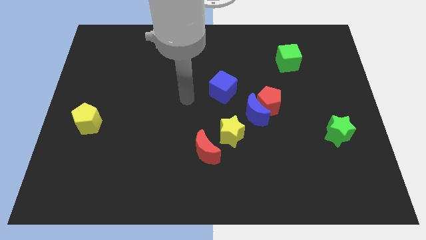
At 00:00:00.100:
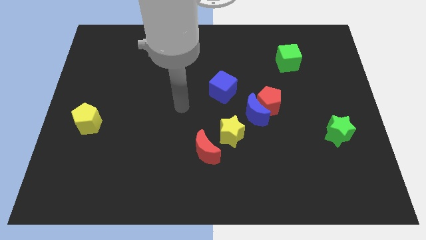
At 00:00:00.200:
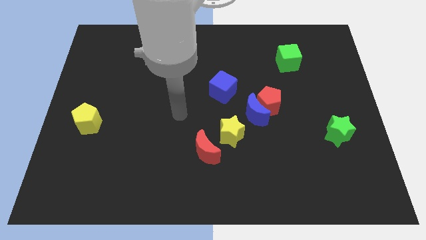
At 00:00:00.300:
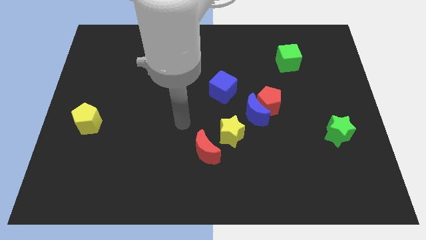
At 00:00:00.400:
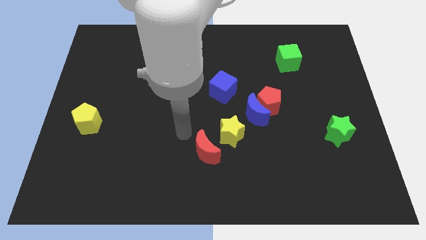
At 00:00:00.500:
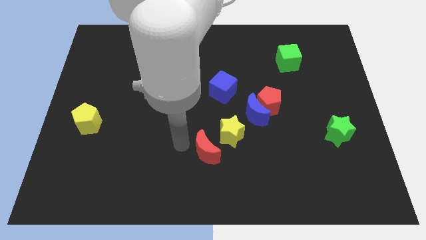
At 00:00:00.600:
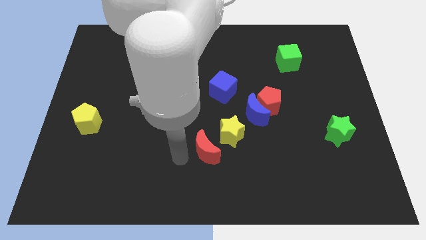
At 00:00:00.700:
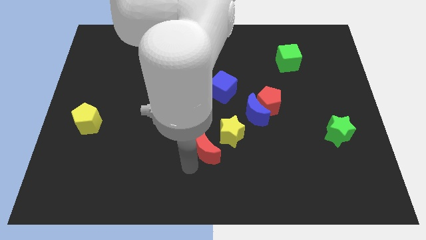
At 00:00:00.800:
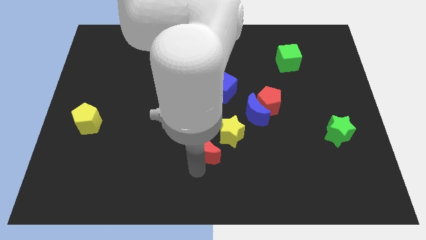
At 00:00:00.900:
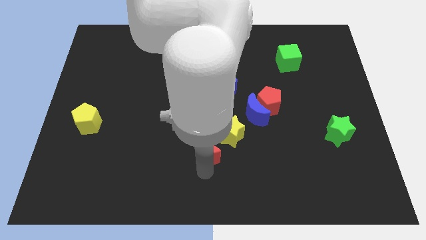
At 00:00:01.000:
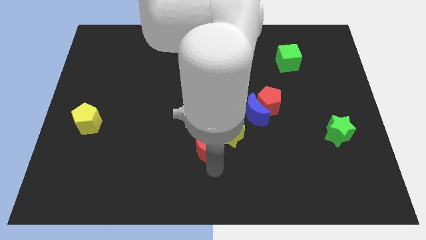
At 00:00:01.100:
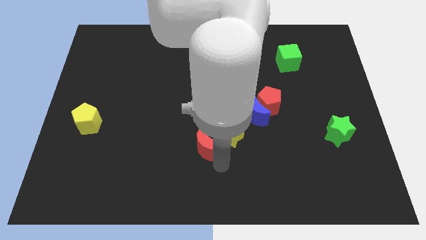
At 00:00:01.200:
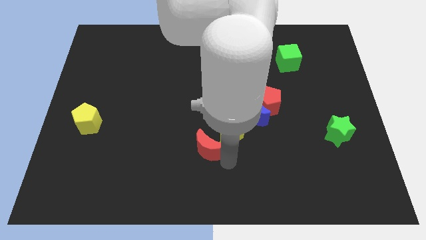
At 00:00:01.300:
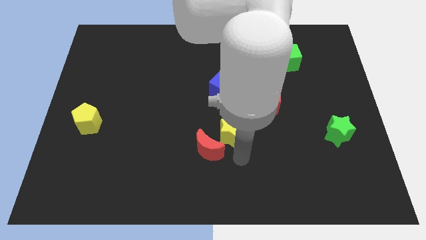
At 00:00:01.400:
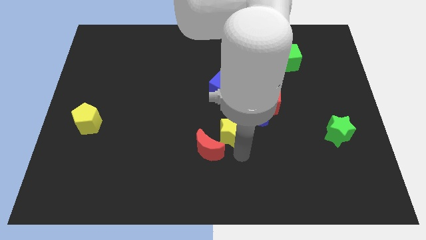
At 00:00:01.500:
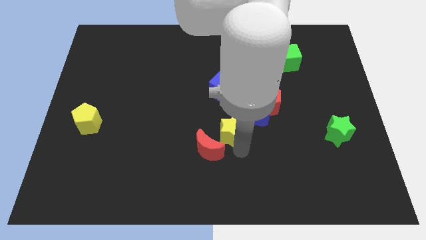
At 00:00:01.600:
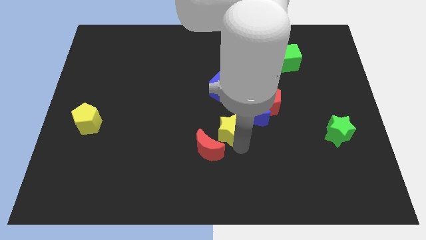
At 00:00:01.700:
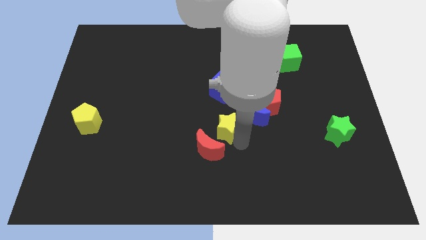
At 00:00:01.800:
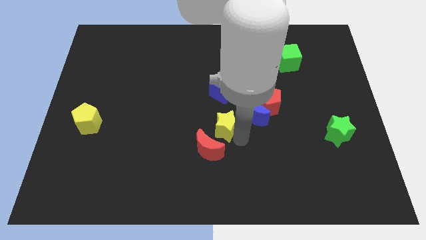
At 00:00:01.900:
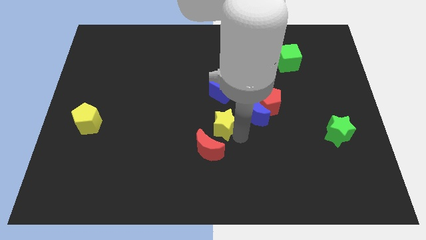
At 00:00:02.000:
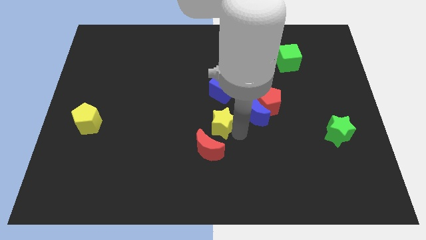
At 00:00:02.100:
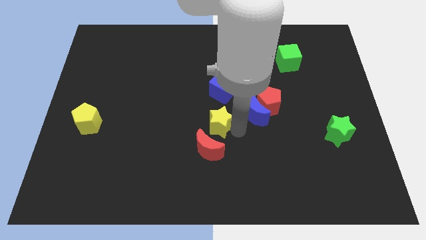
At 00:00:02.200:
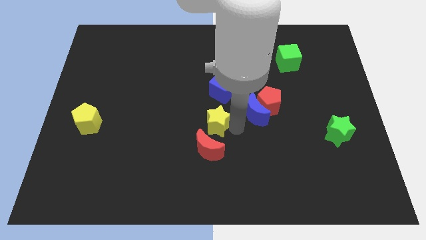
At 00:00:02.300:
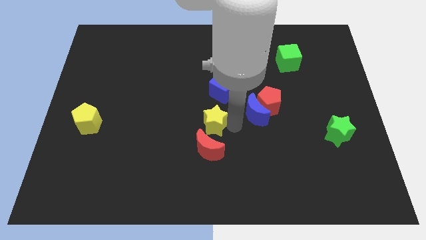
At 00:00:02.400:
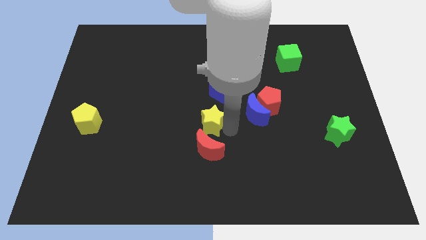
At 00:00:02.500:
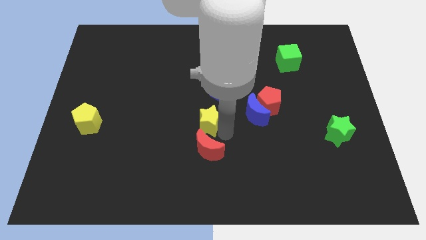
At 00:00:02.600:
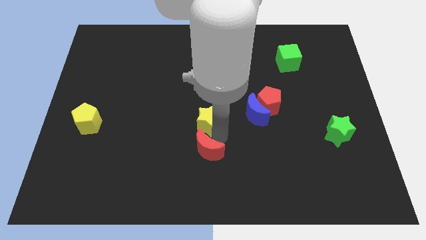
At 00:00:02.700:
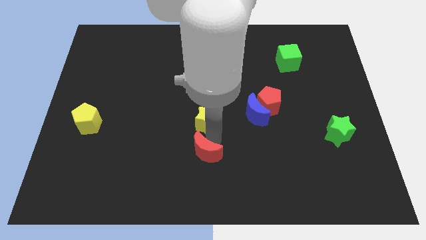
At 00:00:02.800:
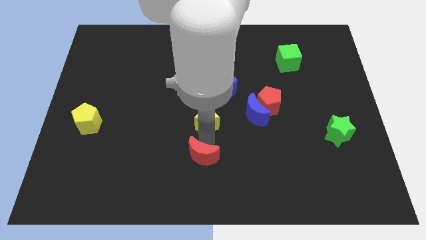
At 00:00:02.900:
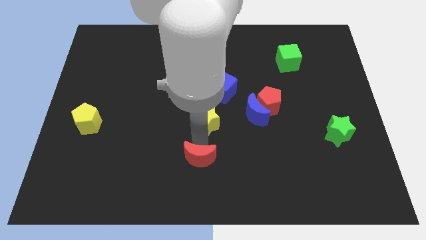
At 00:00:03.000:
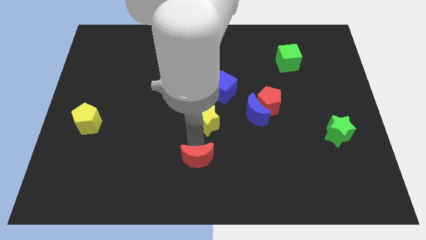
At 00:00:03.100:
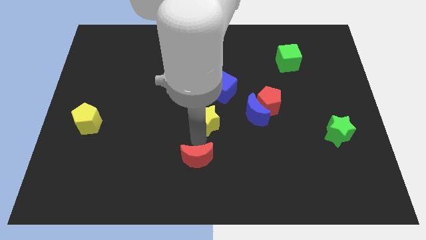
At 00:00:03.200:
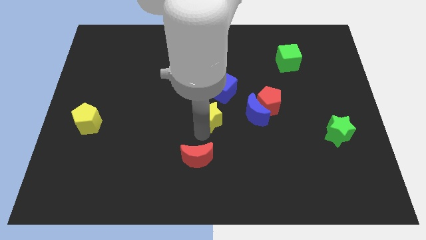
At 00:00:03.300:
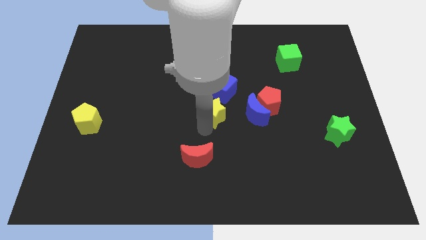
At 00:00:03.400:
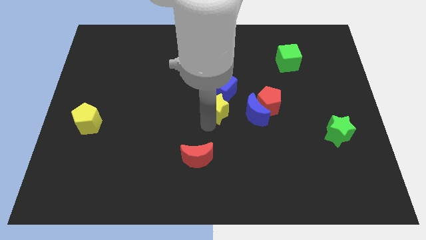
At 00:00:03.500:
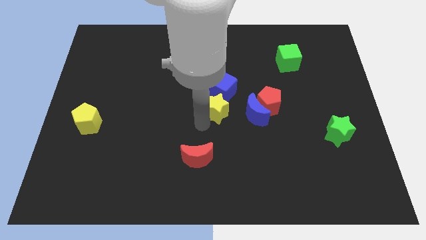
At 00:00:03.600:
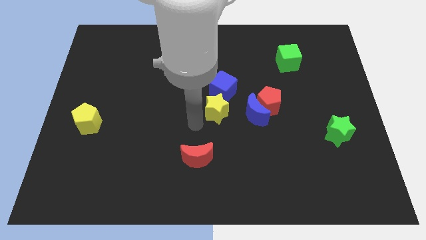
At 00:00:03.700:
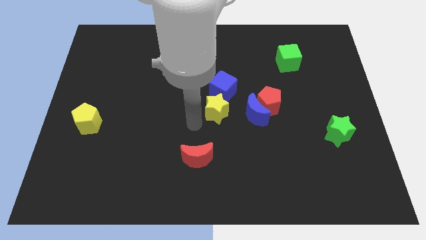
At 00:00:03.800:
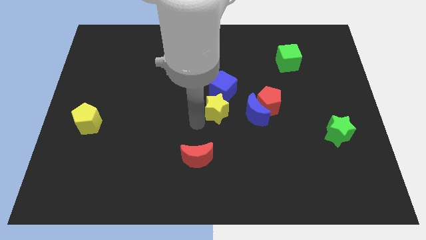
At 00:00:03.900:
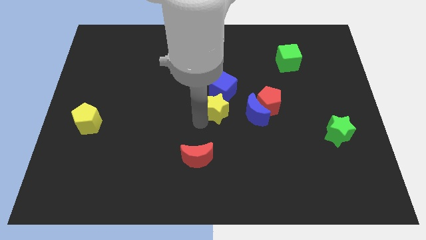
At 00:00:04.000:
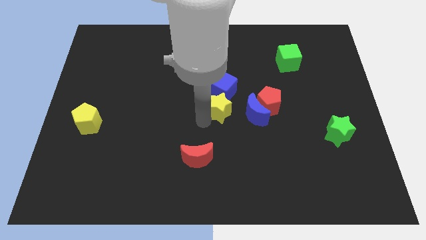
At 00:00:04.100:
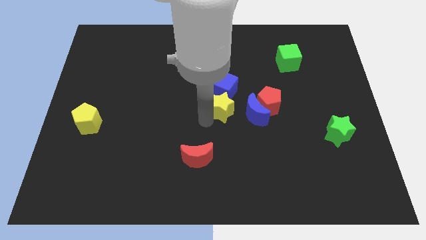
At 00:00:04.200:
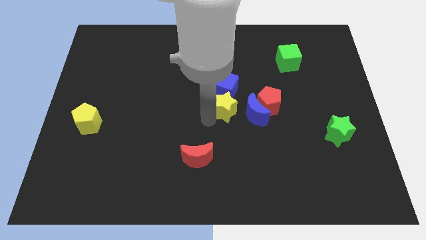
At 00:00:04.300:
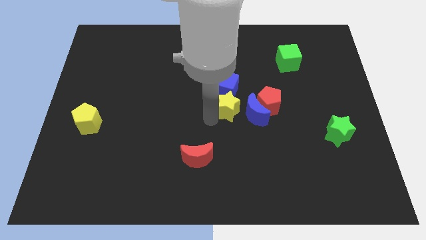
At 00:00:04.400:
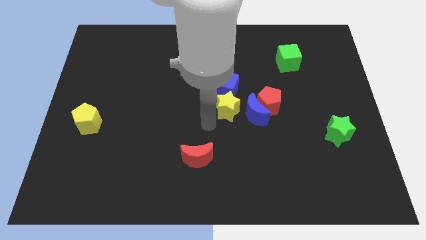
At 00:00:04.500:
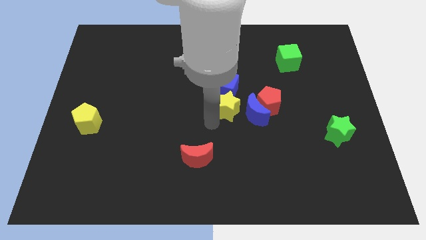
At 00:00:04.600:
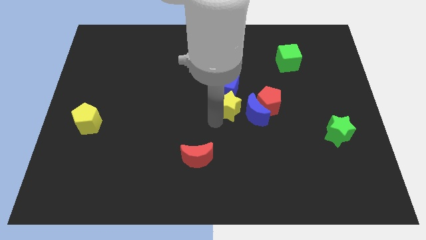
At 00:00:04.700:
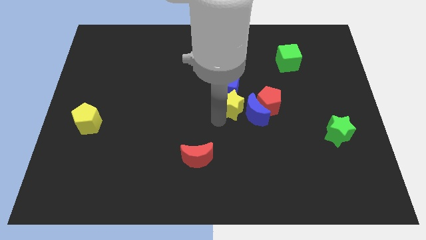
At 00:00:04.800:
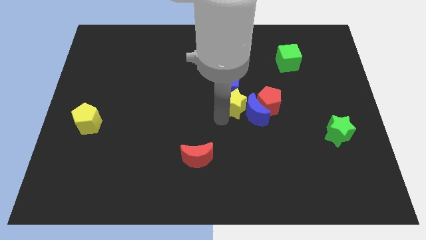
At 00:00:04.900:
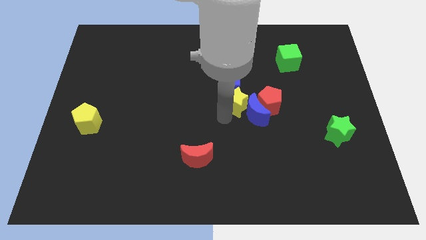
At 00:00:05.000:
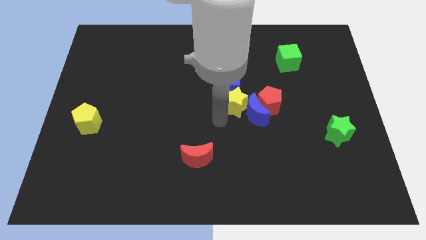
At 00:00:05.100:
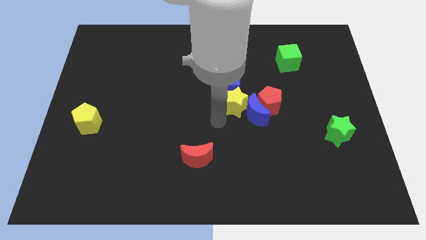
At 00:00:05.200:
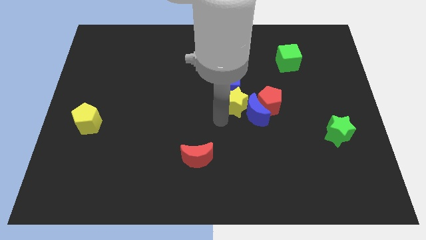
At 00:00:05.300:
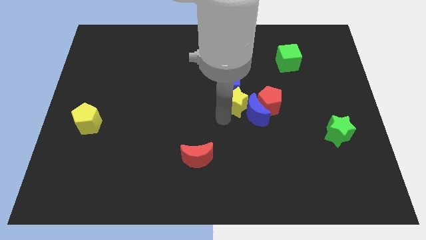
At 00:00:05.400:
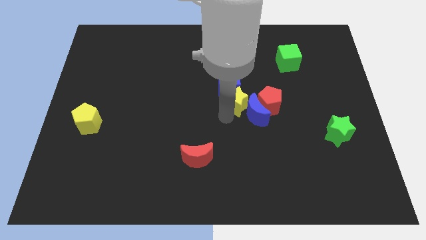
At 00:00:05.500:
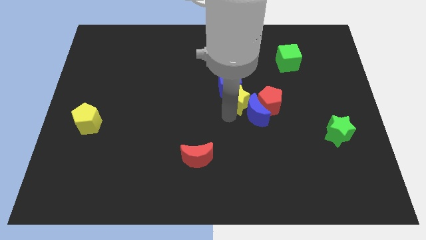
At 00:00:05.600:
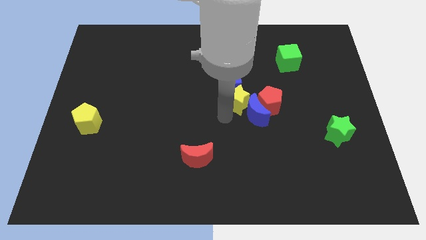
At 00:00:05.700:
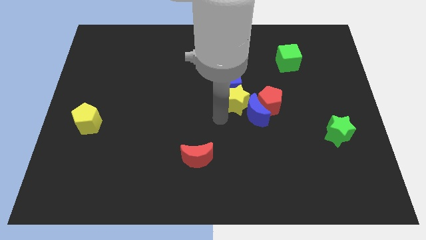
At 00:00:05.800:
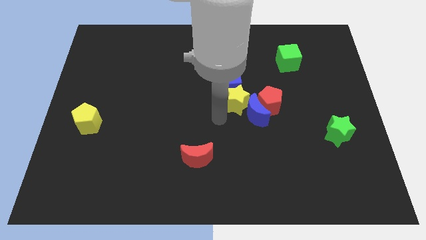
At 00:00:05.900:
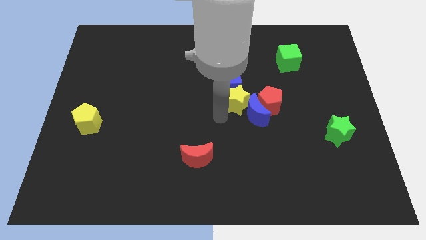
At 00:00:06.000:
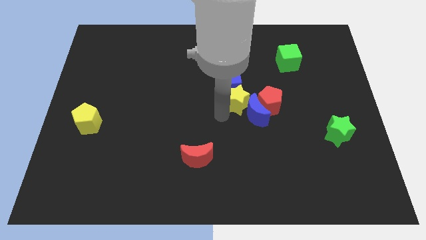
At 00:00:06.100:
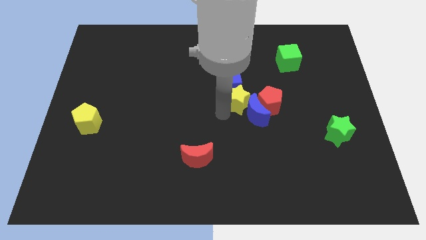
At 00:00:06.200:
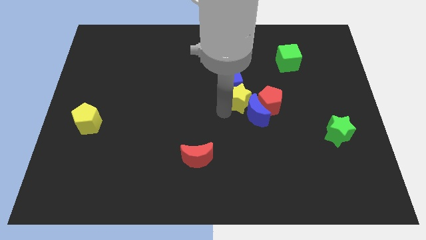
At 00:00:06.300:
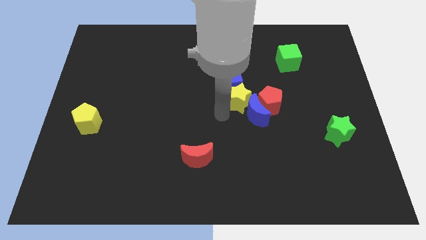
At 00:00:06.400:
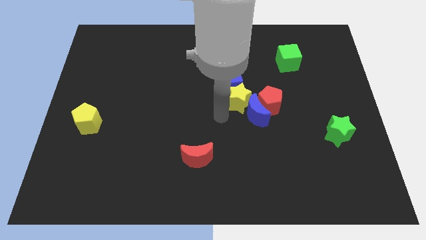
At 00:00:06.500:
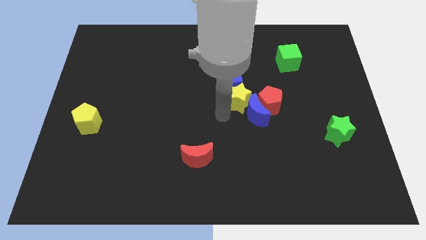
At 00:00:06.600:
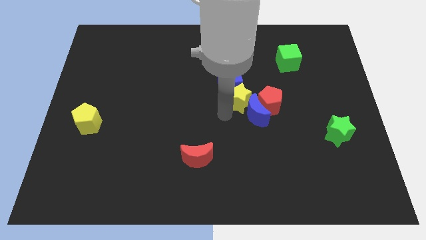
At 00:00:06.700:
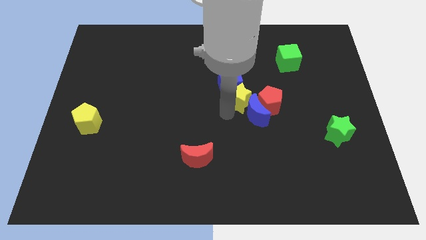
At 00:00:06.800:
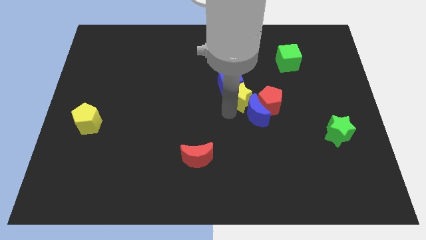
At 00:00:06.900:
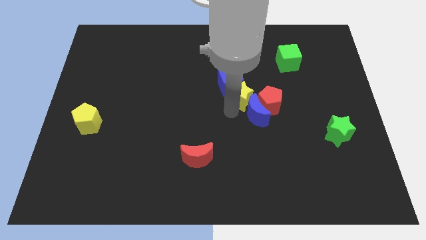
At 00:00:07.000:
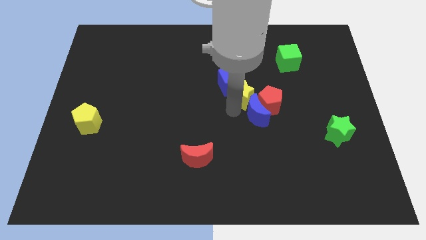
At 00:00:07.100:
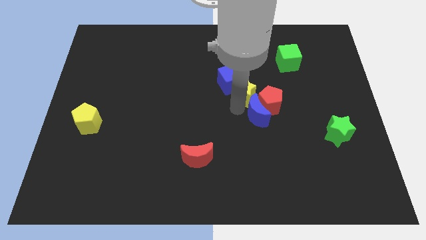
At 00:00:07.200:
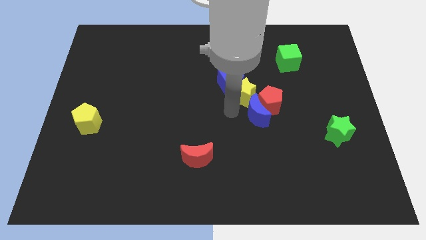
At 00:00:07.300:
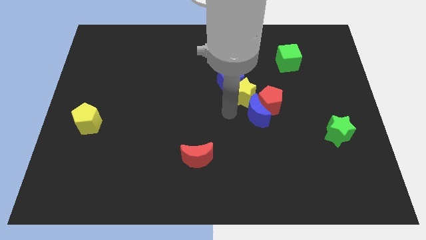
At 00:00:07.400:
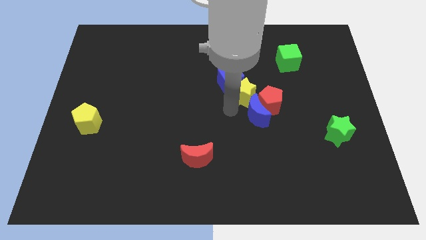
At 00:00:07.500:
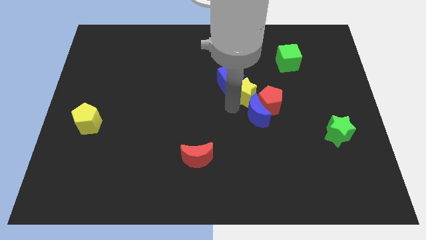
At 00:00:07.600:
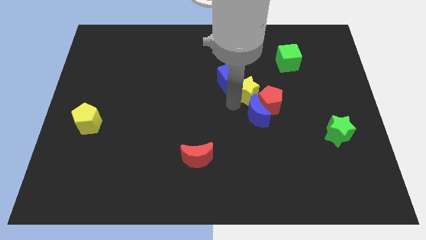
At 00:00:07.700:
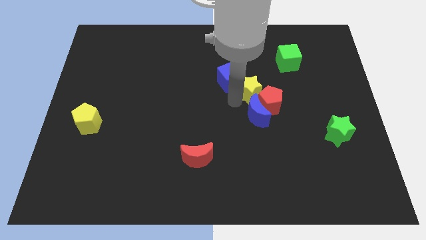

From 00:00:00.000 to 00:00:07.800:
push the yellow star above the red pentagon
